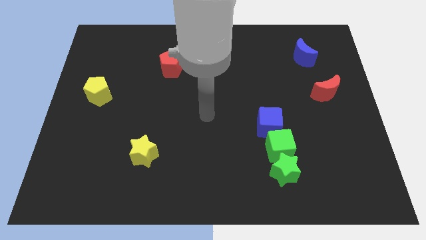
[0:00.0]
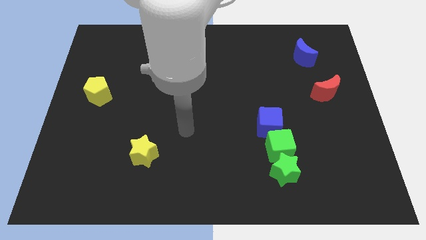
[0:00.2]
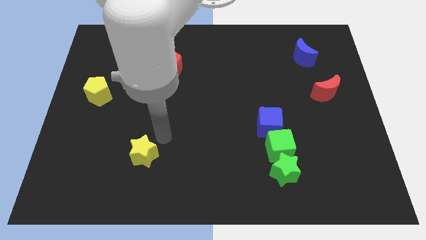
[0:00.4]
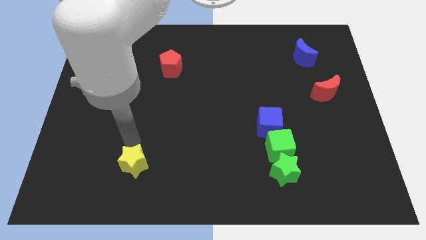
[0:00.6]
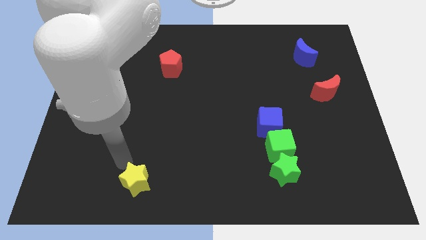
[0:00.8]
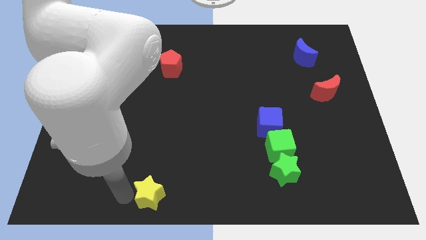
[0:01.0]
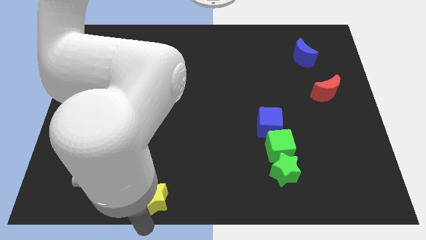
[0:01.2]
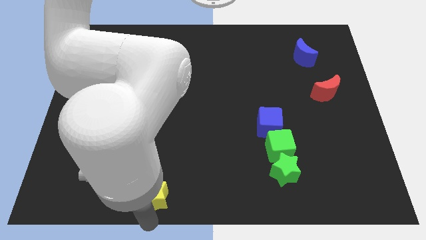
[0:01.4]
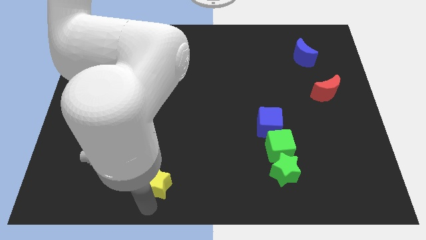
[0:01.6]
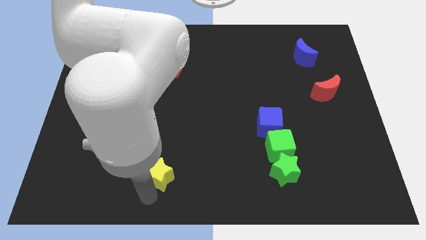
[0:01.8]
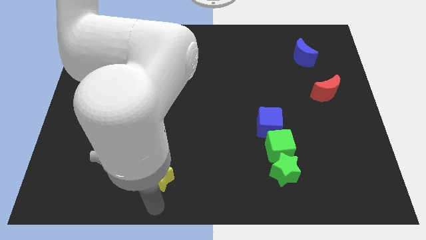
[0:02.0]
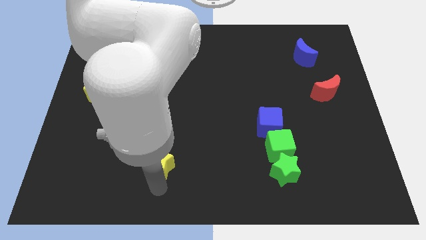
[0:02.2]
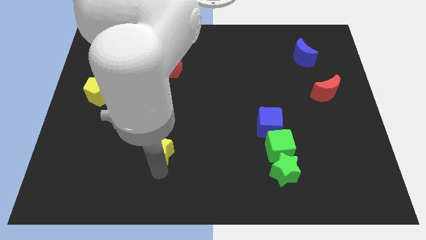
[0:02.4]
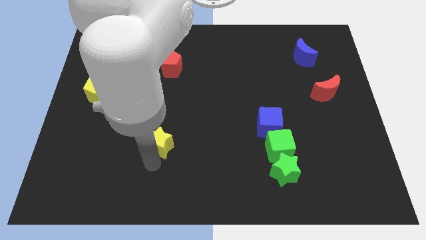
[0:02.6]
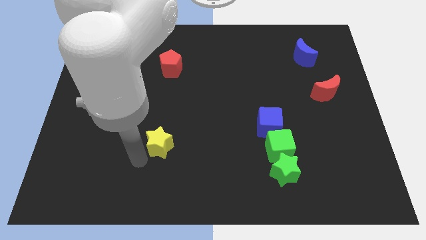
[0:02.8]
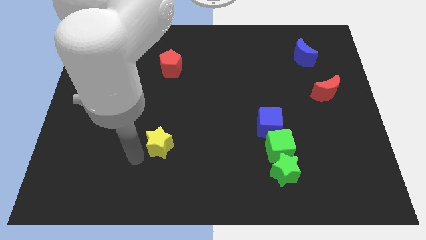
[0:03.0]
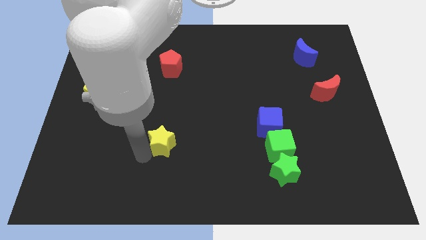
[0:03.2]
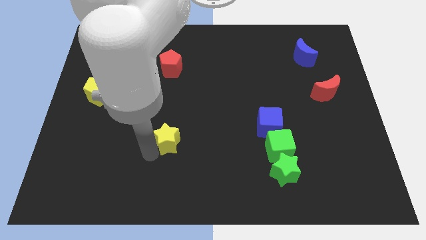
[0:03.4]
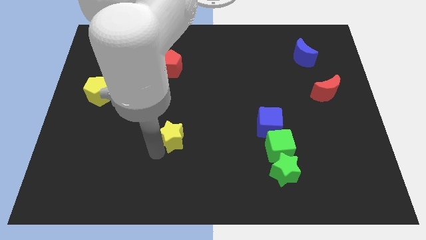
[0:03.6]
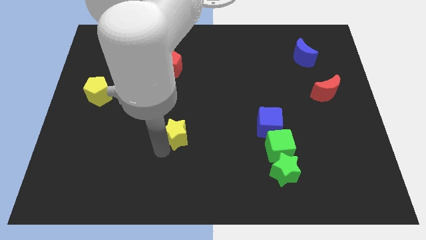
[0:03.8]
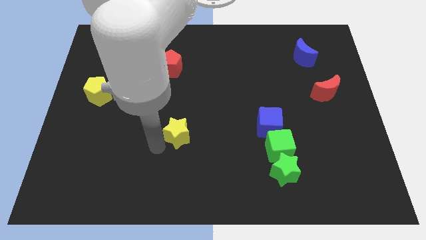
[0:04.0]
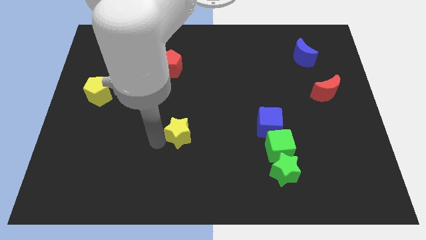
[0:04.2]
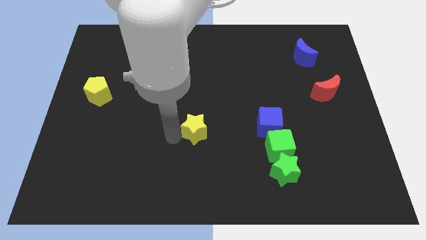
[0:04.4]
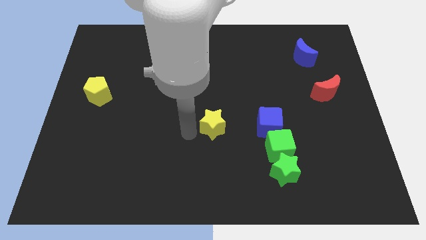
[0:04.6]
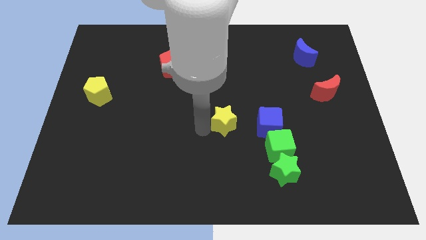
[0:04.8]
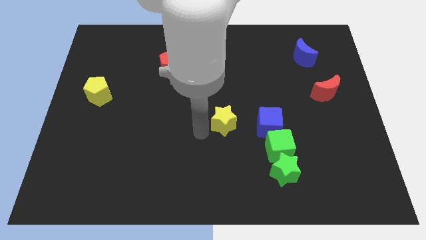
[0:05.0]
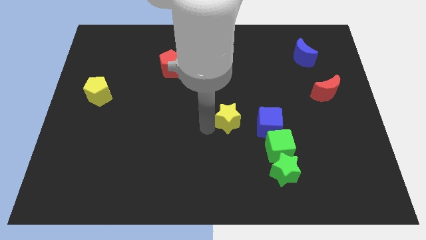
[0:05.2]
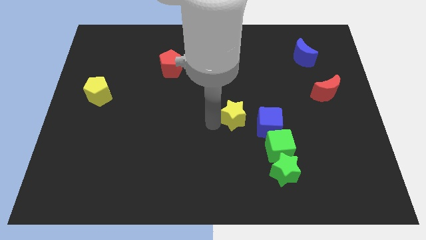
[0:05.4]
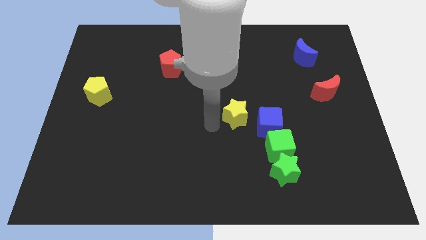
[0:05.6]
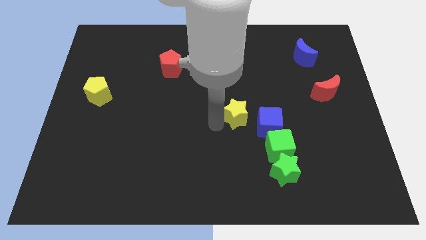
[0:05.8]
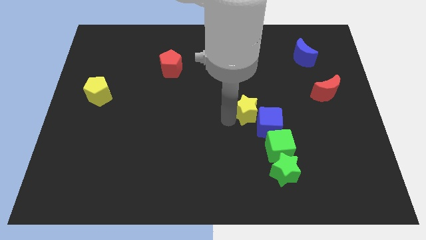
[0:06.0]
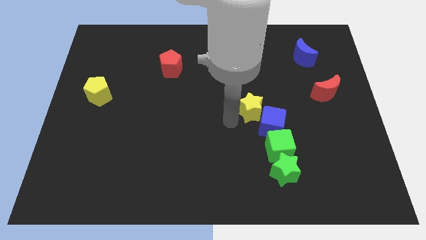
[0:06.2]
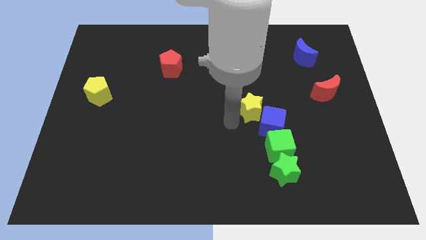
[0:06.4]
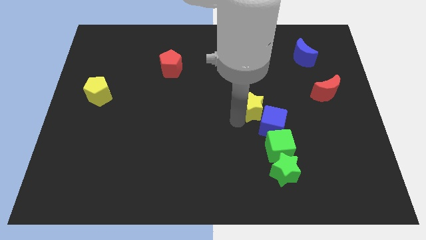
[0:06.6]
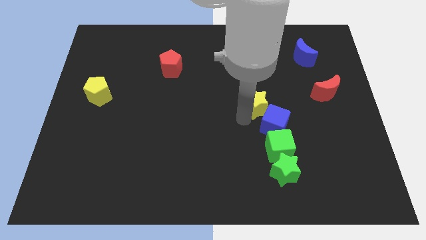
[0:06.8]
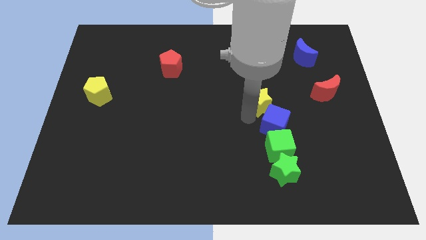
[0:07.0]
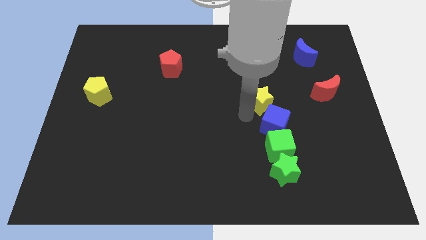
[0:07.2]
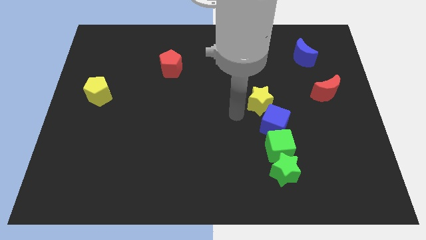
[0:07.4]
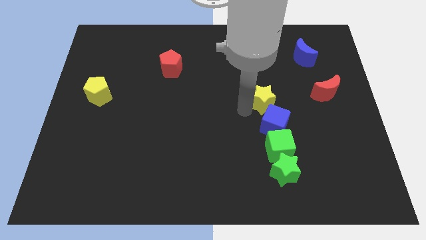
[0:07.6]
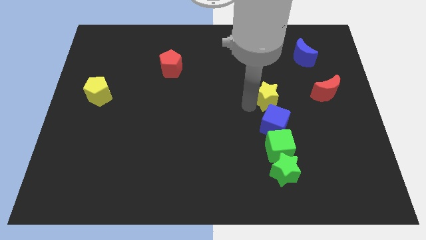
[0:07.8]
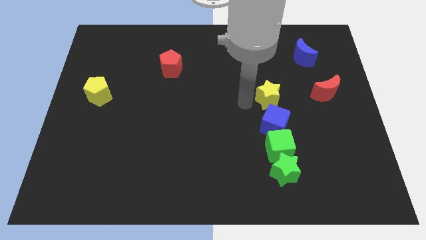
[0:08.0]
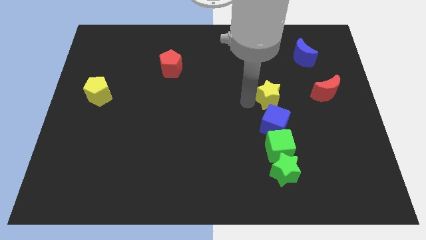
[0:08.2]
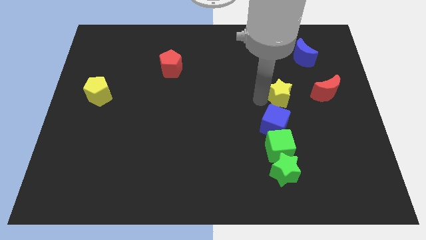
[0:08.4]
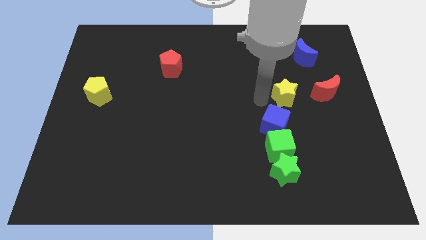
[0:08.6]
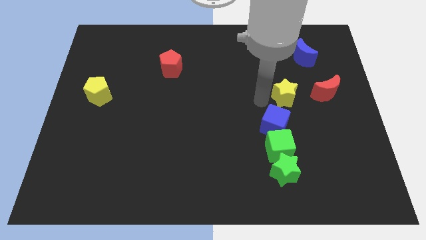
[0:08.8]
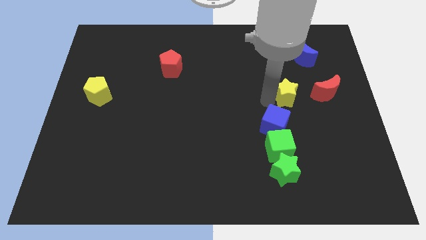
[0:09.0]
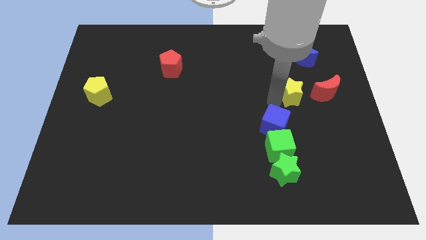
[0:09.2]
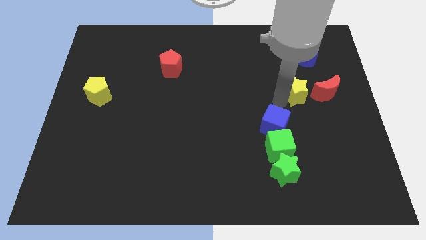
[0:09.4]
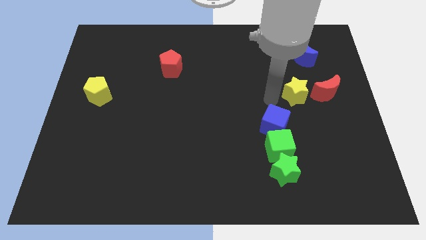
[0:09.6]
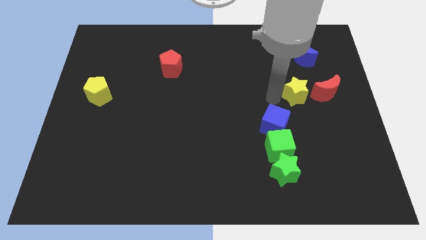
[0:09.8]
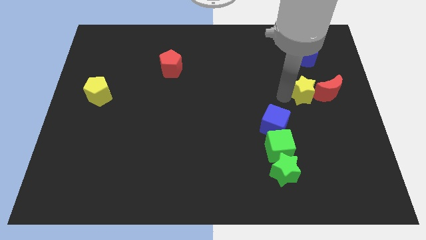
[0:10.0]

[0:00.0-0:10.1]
push the yellow star next to the red moon

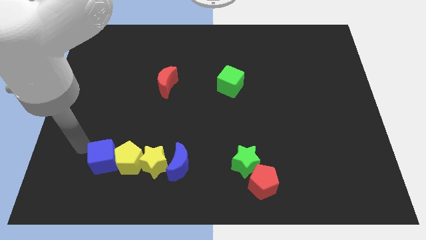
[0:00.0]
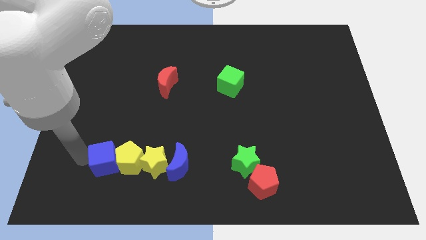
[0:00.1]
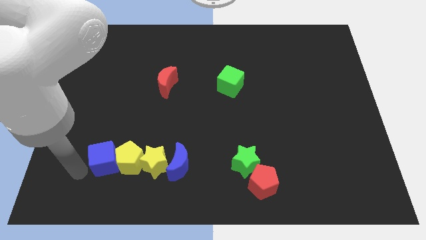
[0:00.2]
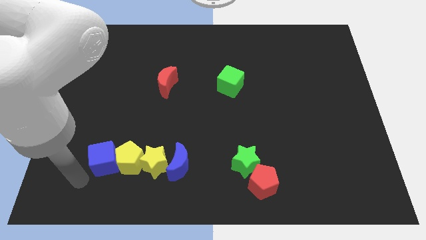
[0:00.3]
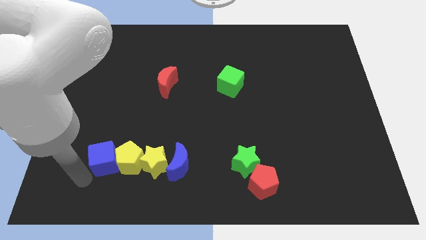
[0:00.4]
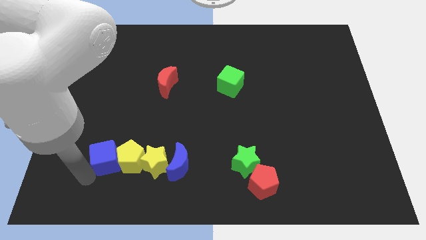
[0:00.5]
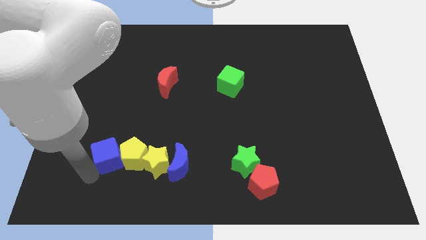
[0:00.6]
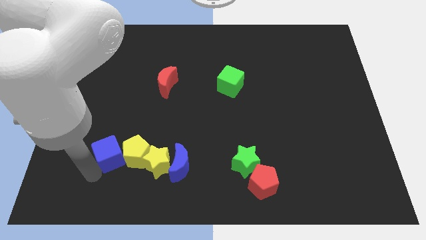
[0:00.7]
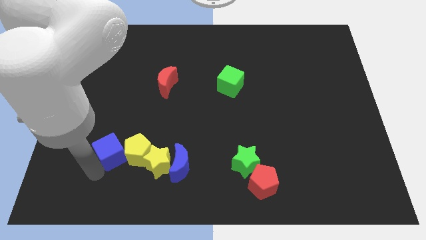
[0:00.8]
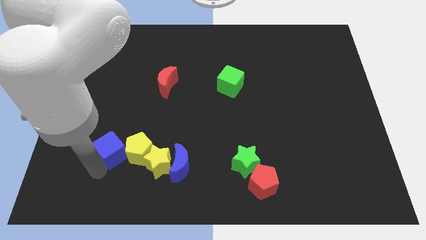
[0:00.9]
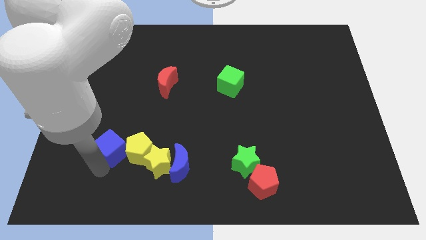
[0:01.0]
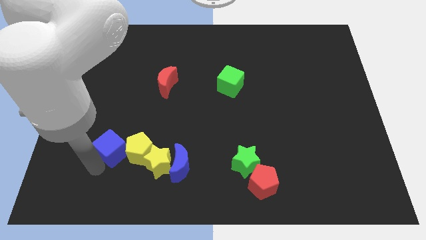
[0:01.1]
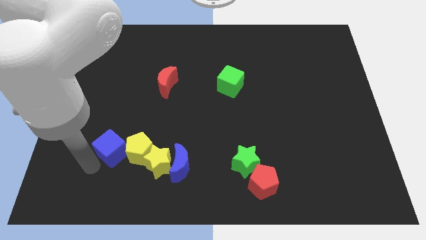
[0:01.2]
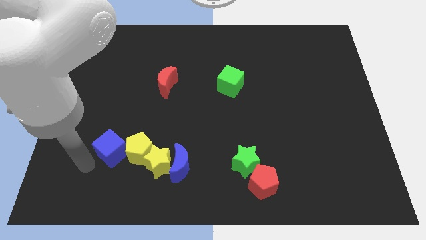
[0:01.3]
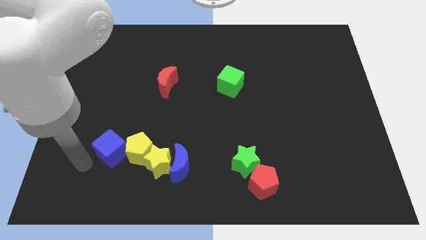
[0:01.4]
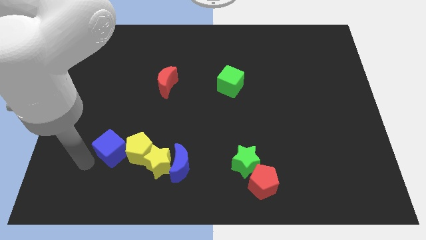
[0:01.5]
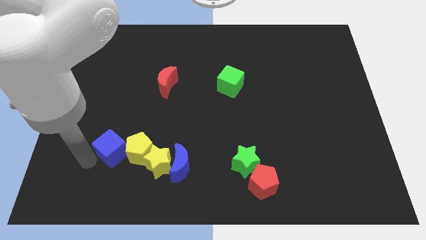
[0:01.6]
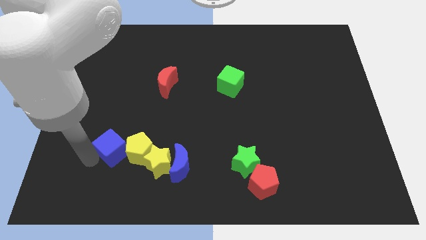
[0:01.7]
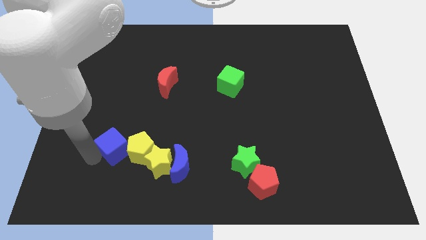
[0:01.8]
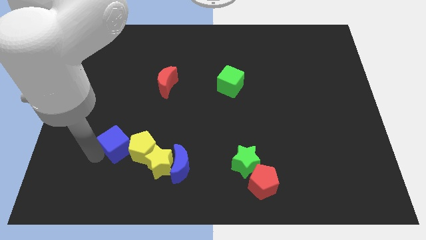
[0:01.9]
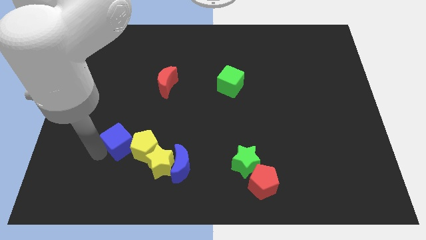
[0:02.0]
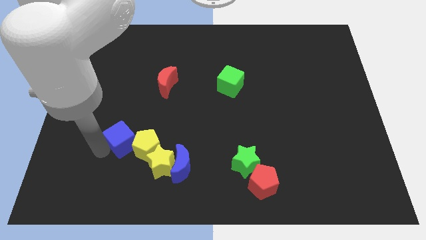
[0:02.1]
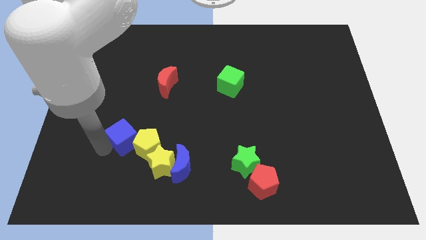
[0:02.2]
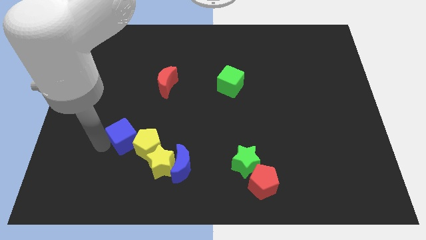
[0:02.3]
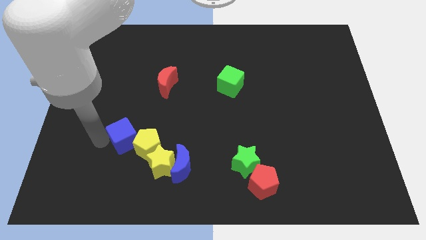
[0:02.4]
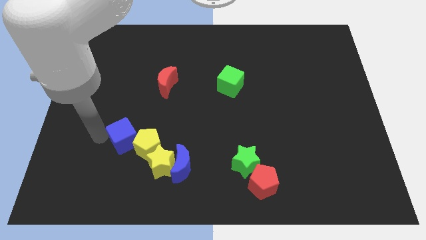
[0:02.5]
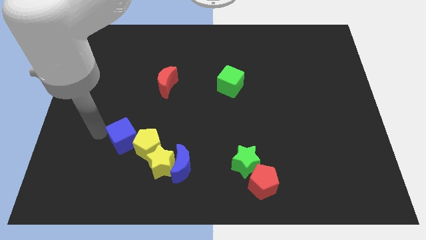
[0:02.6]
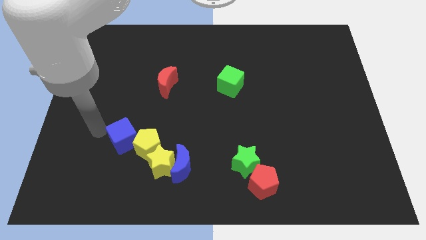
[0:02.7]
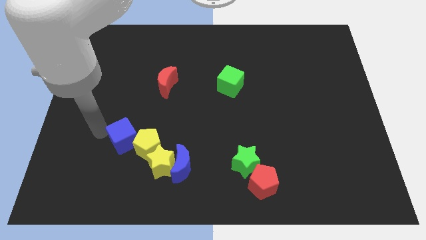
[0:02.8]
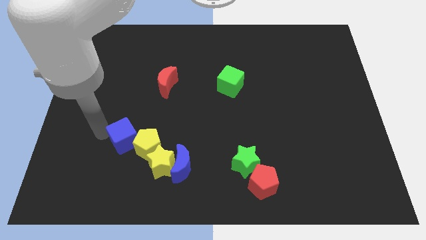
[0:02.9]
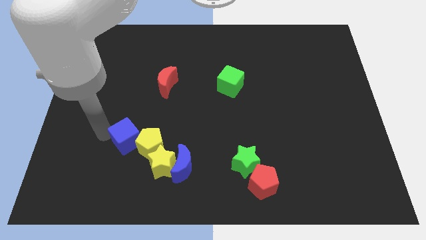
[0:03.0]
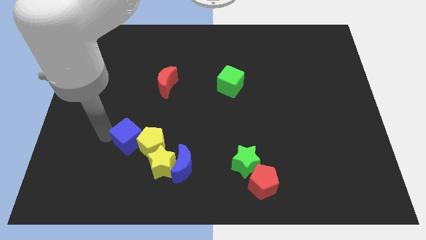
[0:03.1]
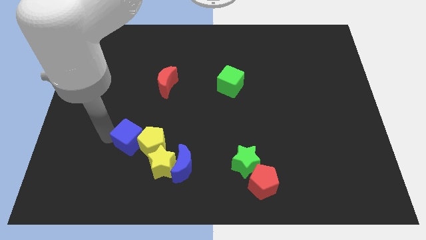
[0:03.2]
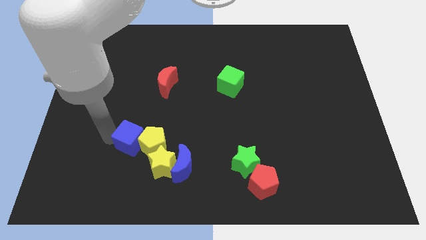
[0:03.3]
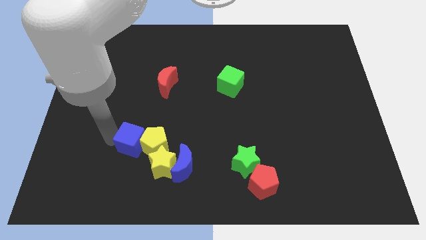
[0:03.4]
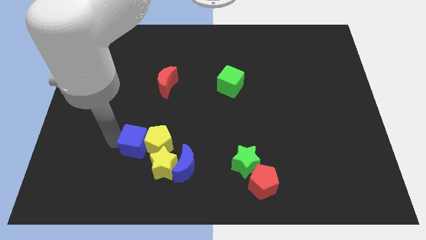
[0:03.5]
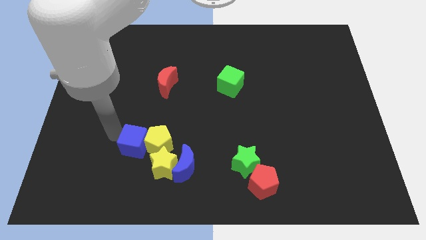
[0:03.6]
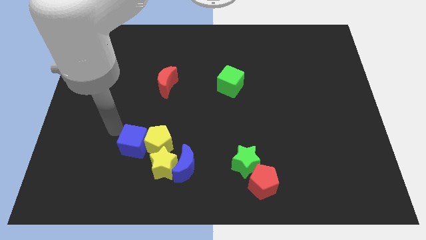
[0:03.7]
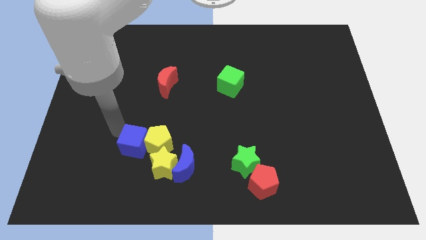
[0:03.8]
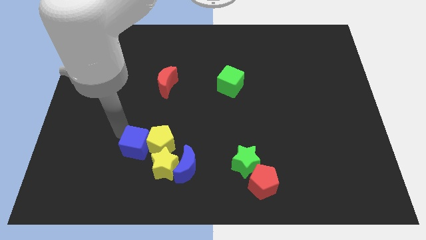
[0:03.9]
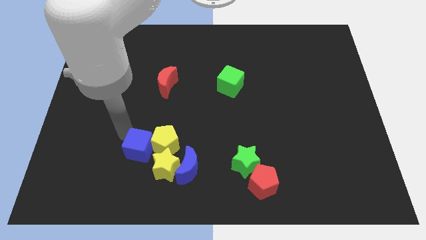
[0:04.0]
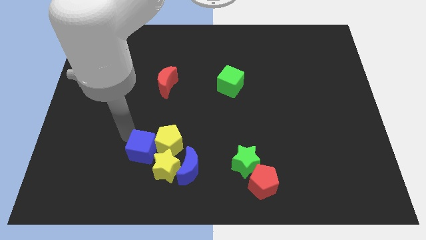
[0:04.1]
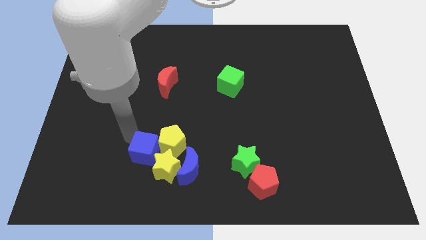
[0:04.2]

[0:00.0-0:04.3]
push the blue cube next to the yellow star
